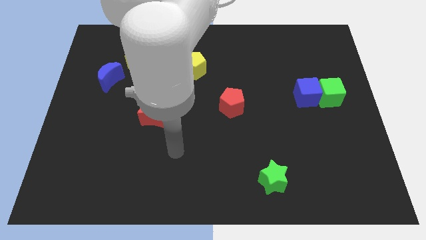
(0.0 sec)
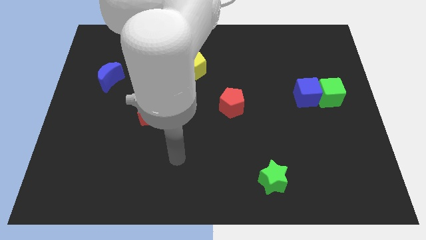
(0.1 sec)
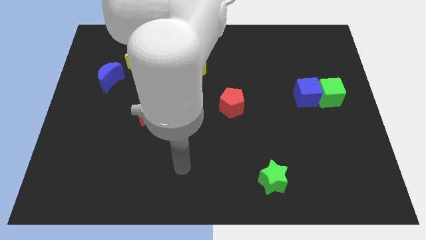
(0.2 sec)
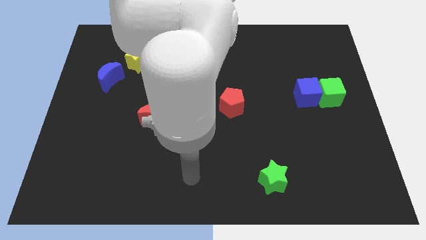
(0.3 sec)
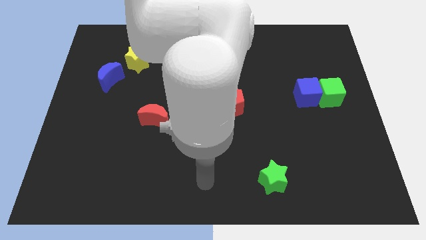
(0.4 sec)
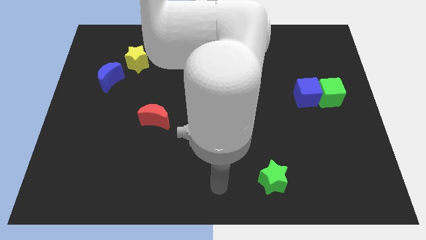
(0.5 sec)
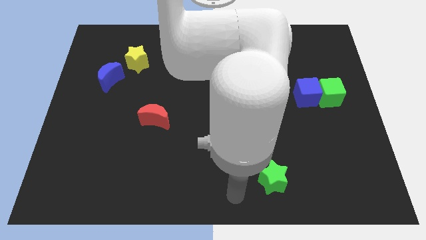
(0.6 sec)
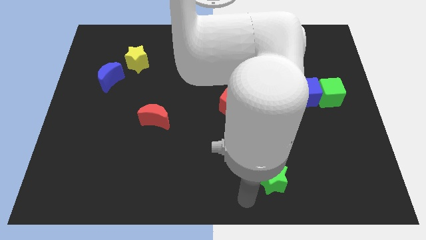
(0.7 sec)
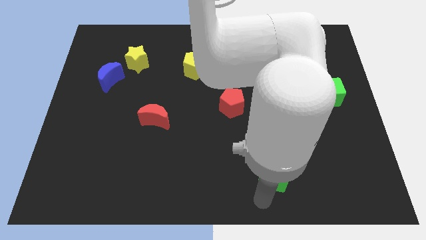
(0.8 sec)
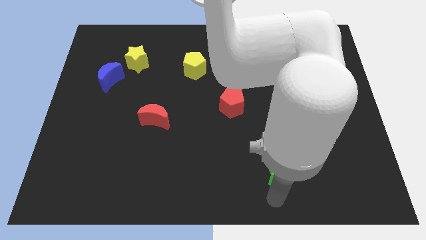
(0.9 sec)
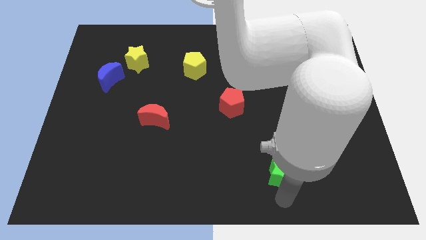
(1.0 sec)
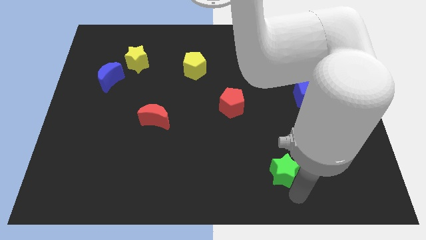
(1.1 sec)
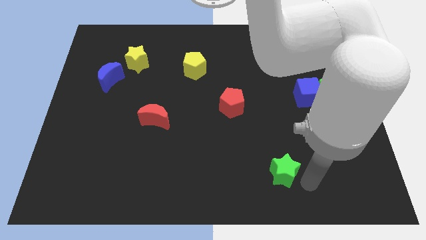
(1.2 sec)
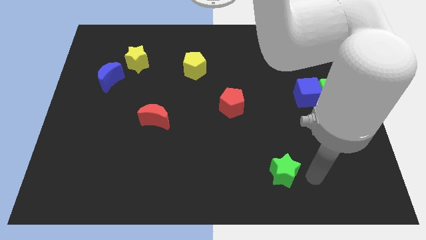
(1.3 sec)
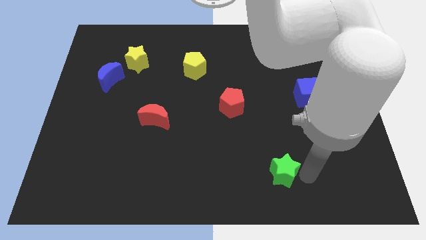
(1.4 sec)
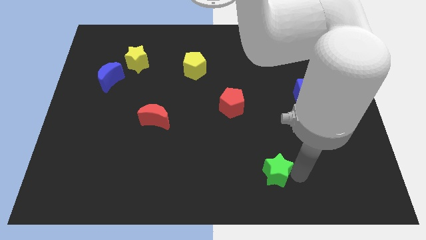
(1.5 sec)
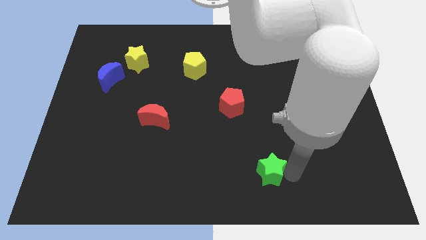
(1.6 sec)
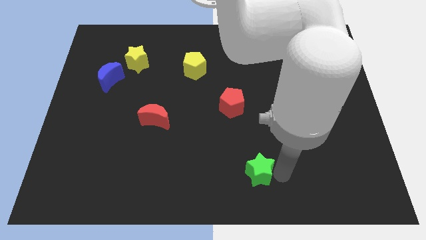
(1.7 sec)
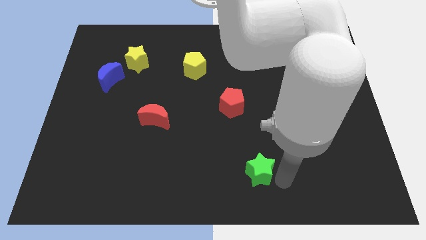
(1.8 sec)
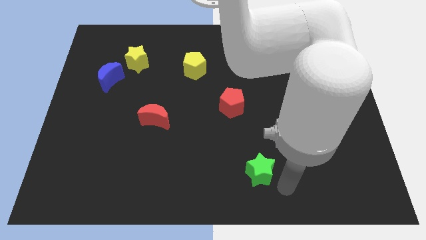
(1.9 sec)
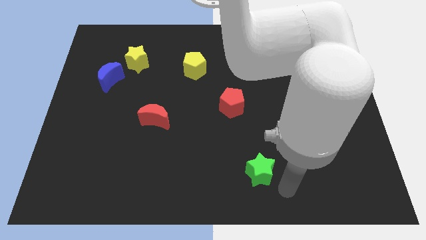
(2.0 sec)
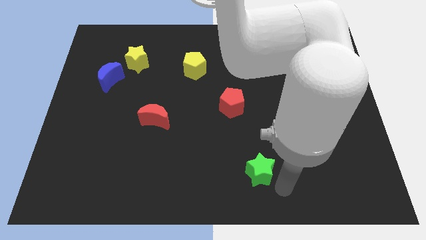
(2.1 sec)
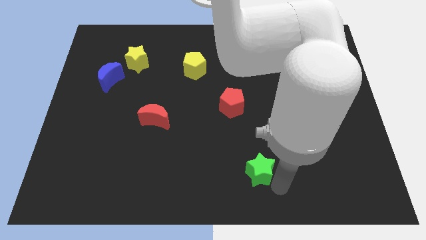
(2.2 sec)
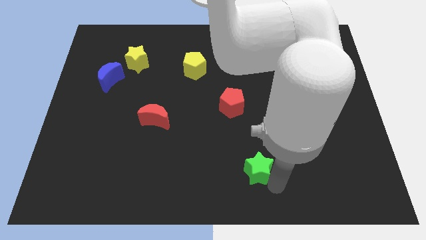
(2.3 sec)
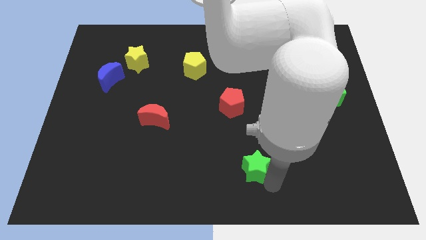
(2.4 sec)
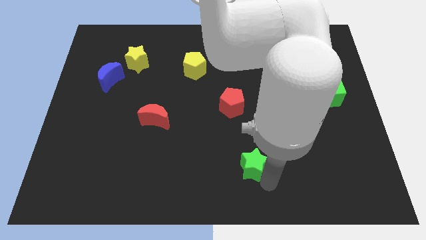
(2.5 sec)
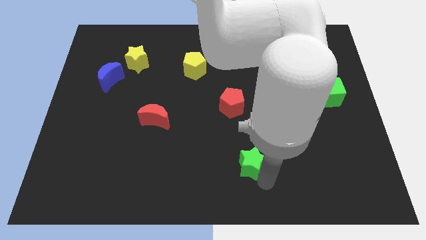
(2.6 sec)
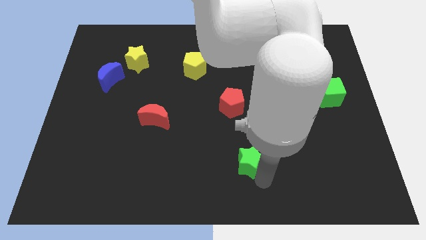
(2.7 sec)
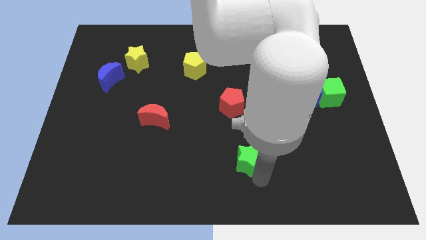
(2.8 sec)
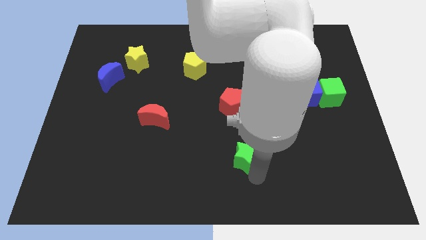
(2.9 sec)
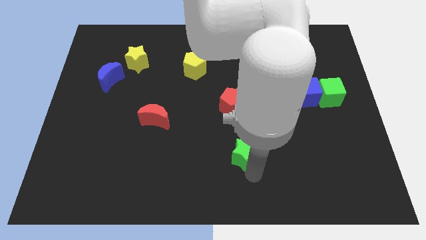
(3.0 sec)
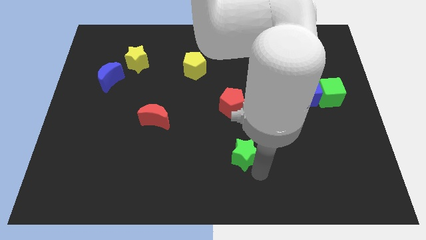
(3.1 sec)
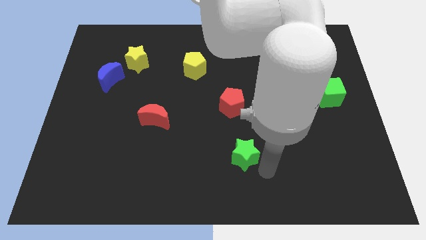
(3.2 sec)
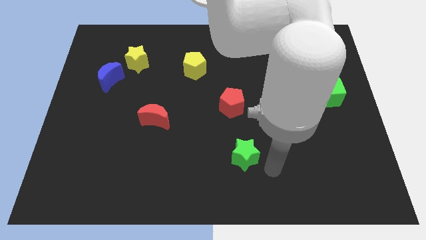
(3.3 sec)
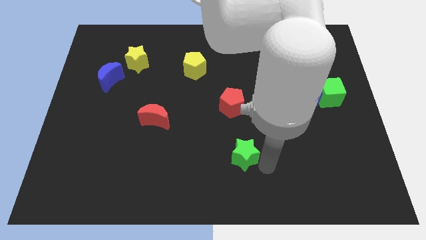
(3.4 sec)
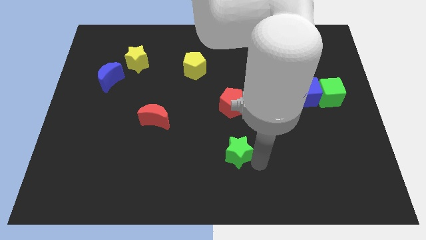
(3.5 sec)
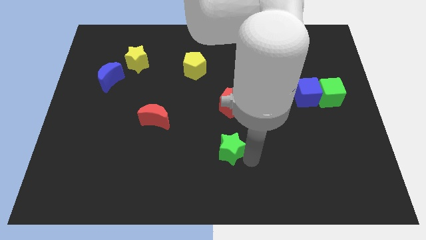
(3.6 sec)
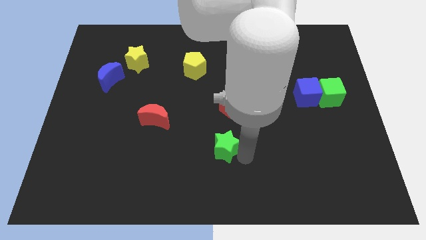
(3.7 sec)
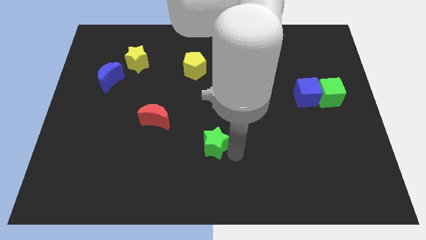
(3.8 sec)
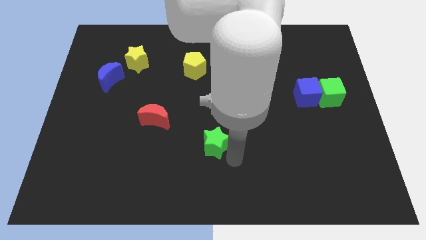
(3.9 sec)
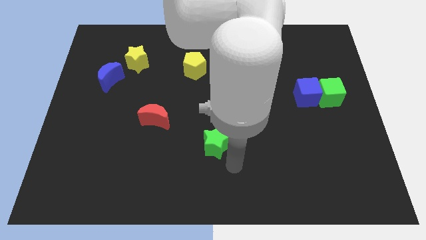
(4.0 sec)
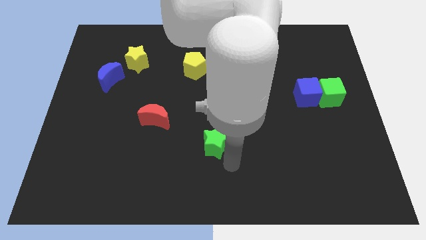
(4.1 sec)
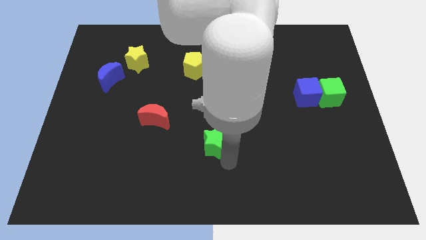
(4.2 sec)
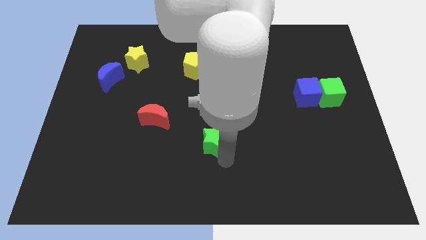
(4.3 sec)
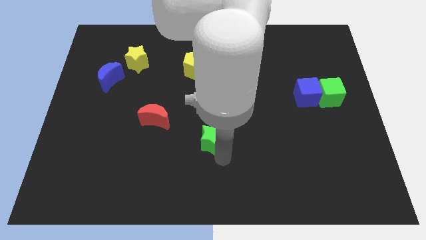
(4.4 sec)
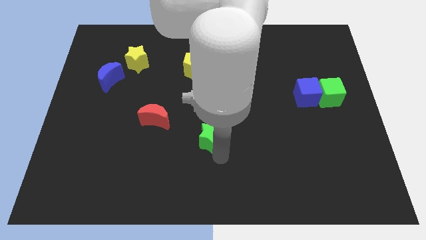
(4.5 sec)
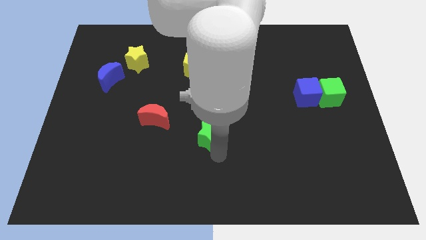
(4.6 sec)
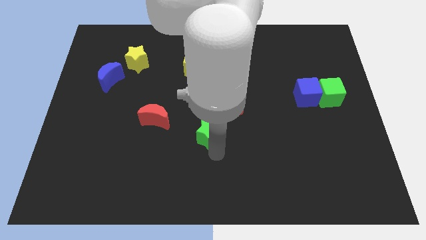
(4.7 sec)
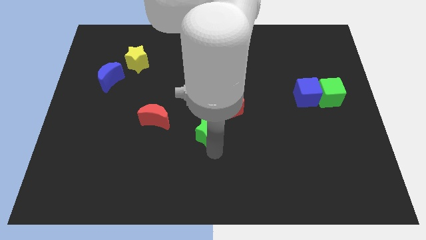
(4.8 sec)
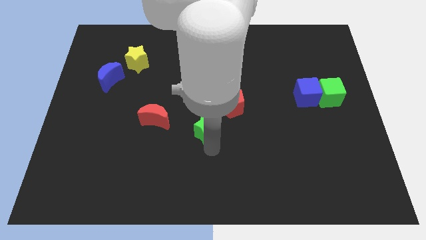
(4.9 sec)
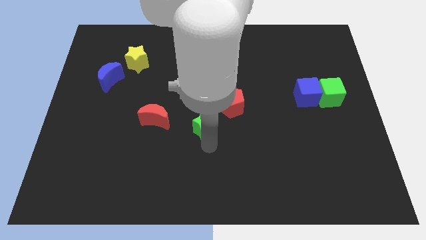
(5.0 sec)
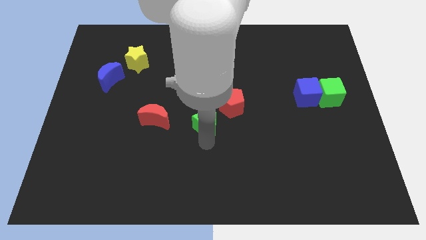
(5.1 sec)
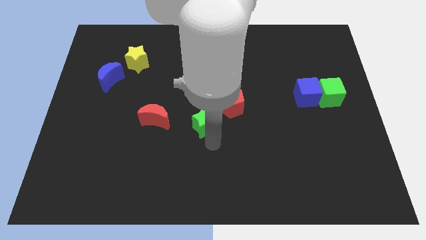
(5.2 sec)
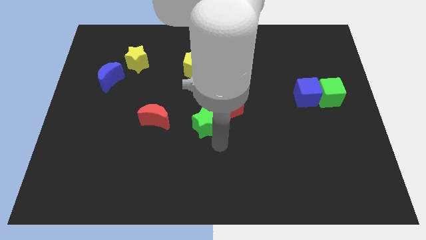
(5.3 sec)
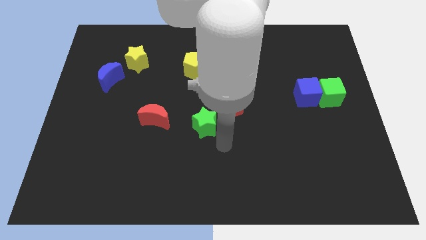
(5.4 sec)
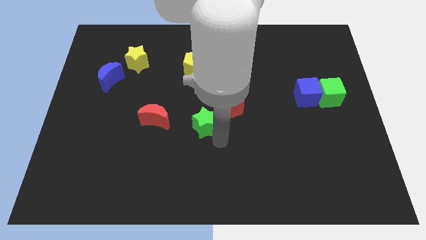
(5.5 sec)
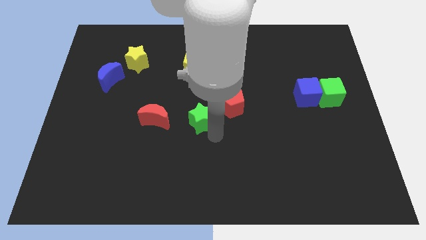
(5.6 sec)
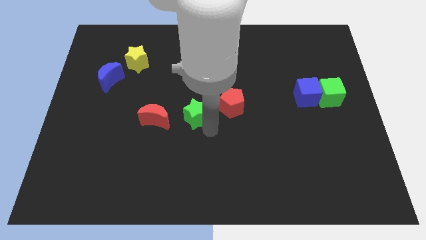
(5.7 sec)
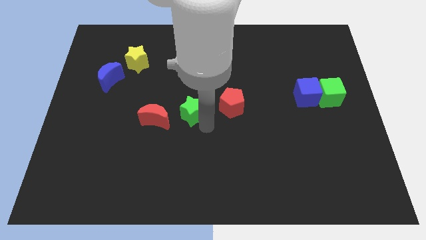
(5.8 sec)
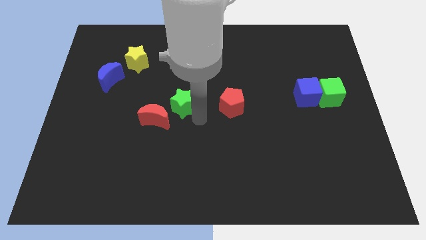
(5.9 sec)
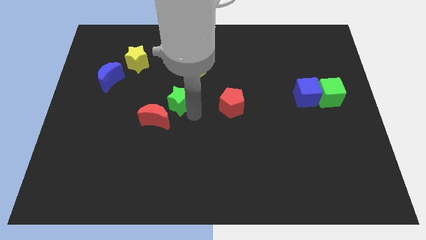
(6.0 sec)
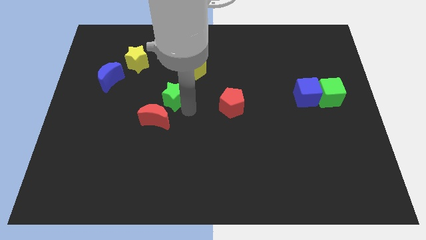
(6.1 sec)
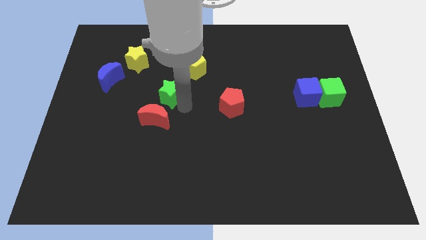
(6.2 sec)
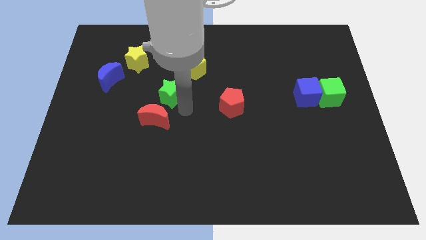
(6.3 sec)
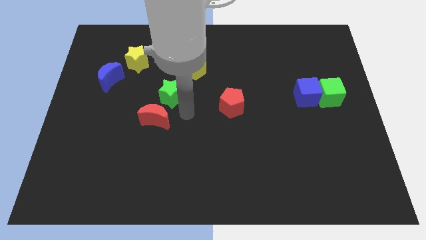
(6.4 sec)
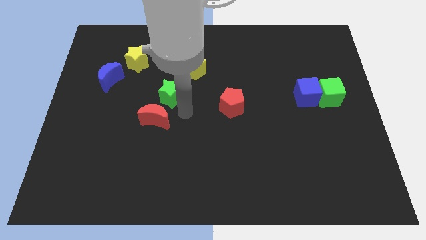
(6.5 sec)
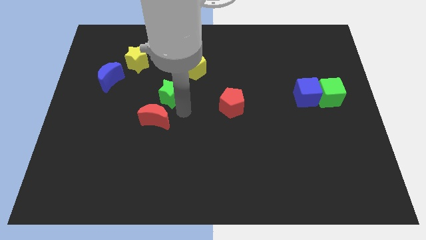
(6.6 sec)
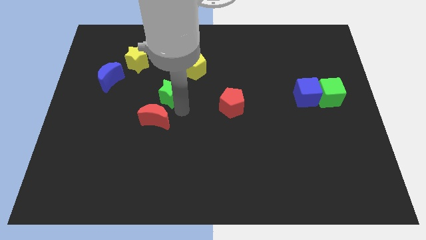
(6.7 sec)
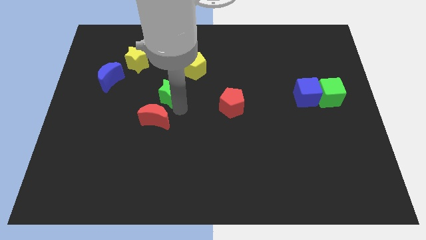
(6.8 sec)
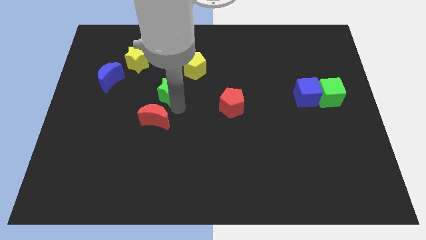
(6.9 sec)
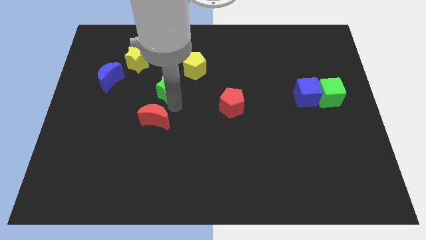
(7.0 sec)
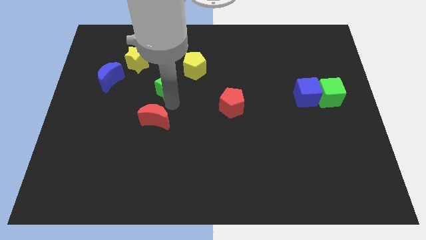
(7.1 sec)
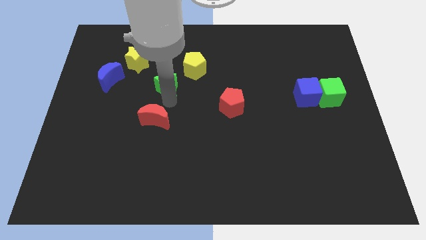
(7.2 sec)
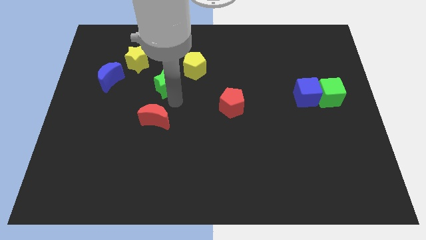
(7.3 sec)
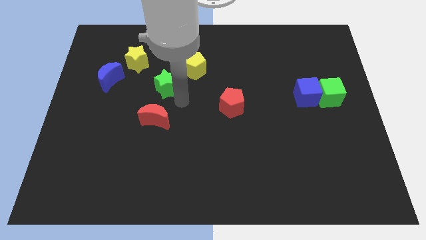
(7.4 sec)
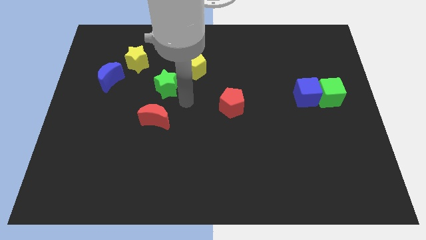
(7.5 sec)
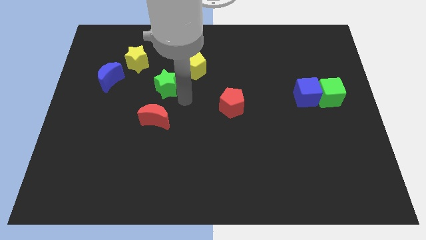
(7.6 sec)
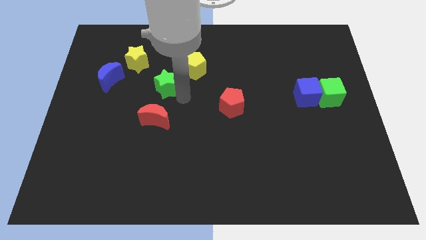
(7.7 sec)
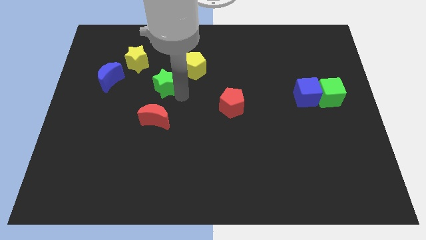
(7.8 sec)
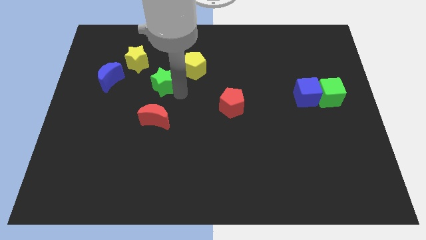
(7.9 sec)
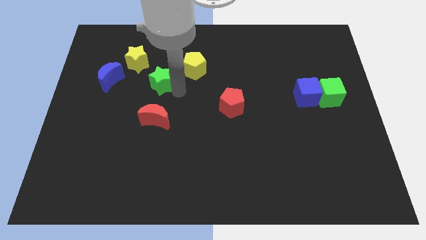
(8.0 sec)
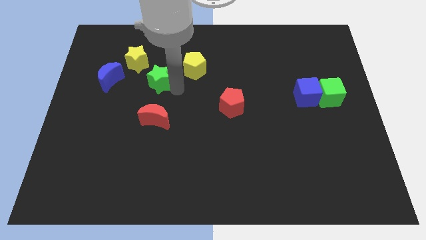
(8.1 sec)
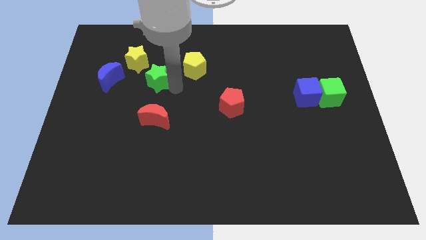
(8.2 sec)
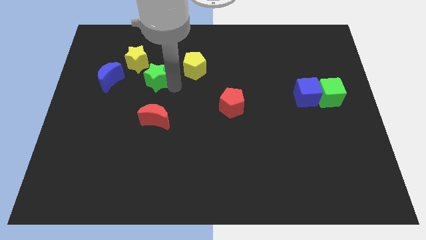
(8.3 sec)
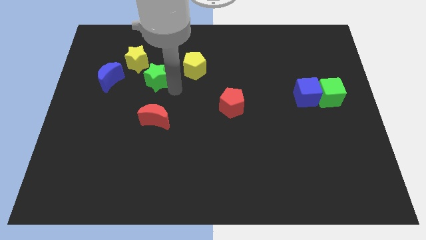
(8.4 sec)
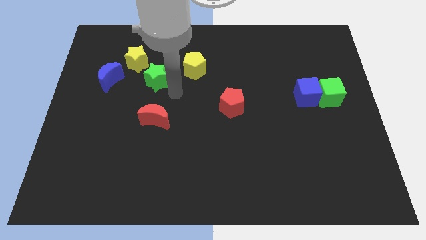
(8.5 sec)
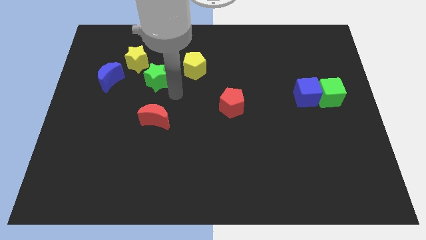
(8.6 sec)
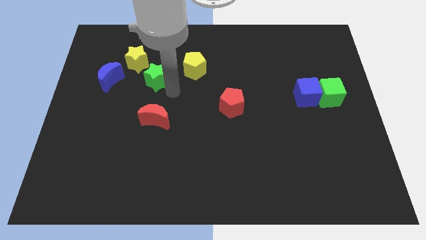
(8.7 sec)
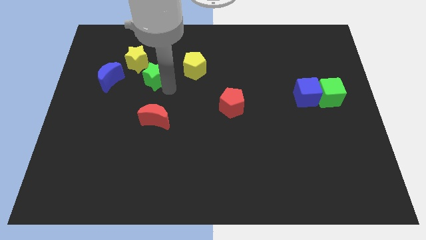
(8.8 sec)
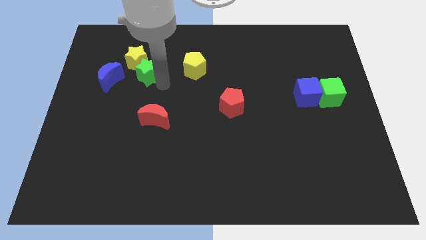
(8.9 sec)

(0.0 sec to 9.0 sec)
move the green star close to the yellow star
